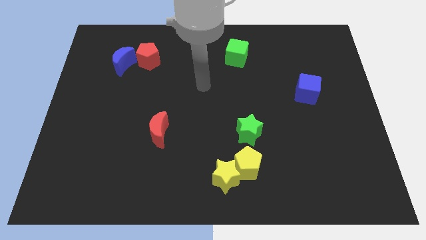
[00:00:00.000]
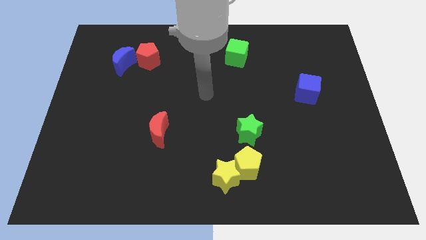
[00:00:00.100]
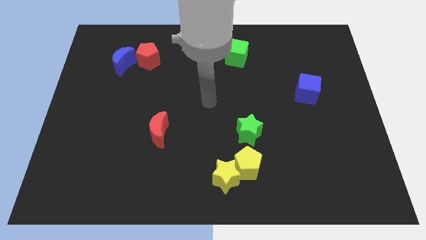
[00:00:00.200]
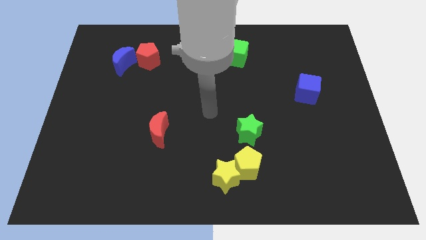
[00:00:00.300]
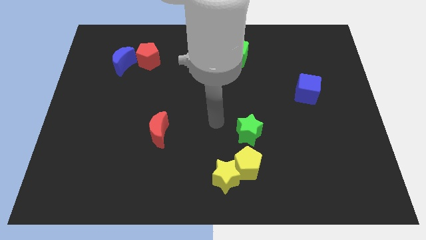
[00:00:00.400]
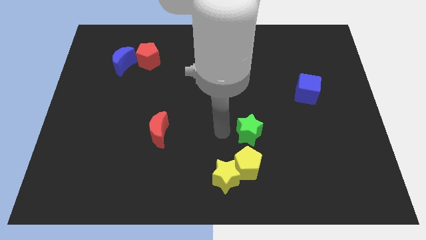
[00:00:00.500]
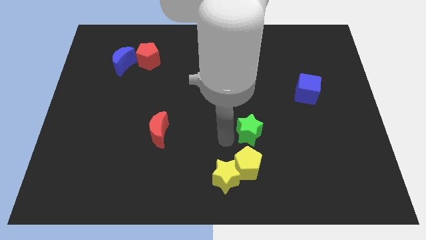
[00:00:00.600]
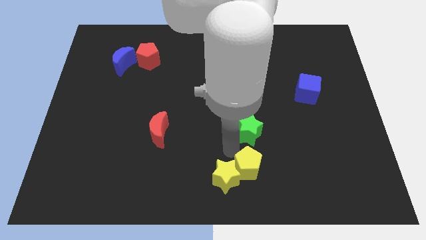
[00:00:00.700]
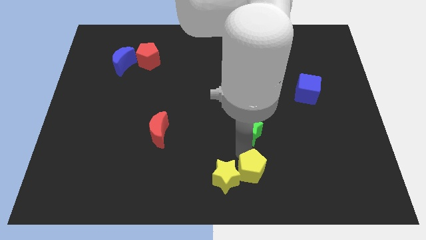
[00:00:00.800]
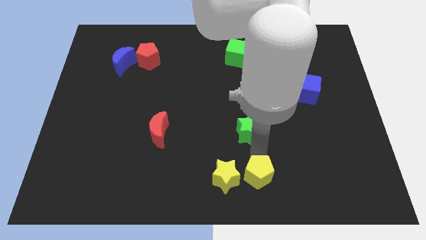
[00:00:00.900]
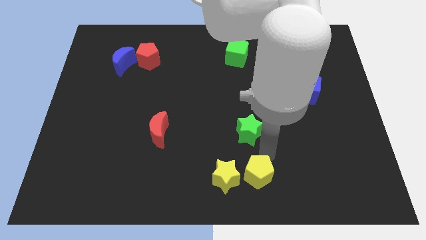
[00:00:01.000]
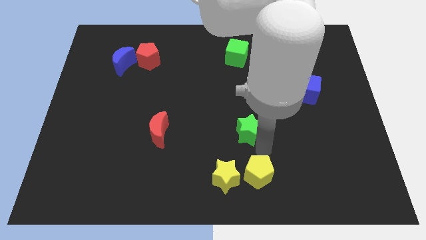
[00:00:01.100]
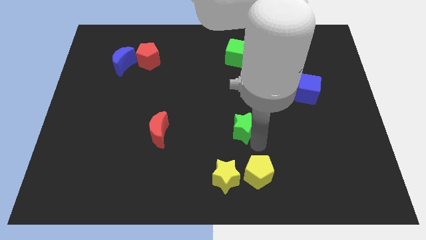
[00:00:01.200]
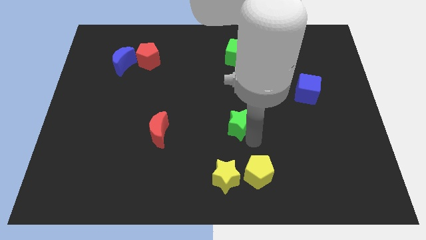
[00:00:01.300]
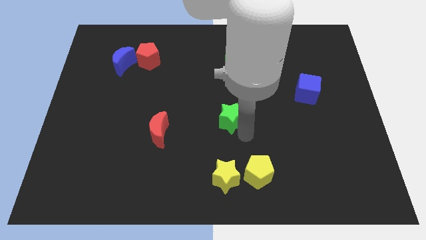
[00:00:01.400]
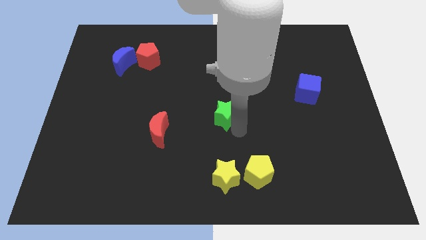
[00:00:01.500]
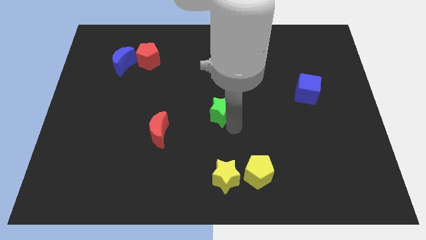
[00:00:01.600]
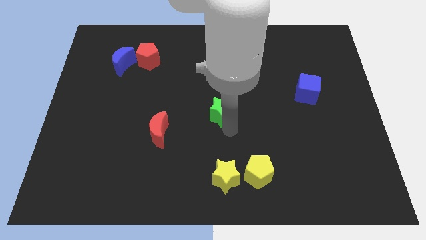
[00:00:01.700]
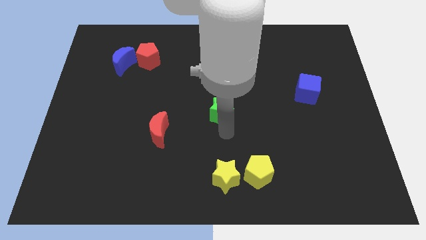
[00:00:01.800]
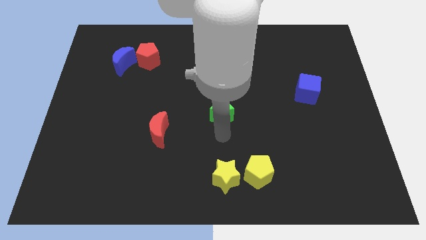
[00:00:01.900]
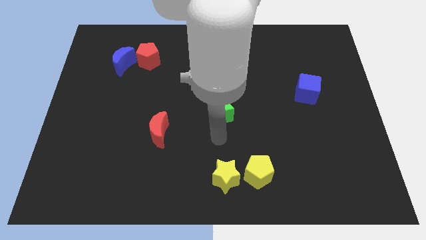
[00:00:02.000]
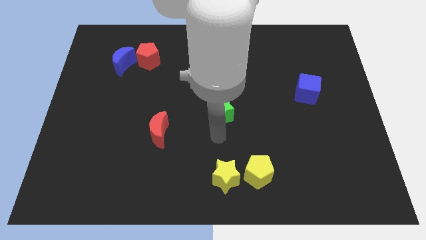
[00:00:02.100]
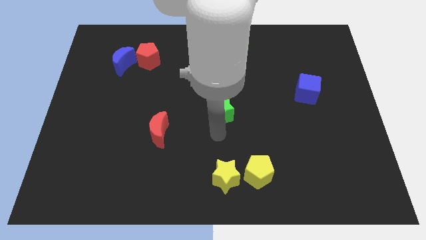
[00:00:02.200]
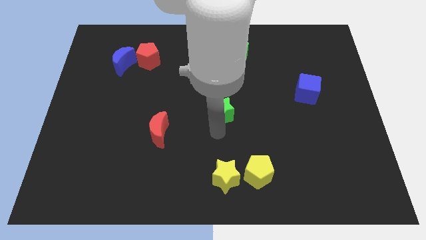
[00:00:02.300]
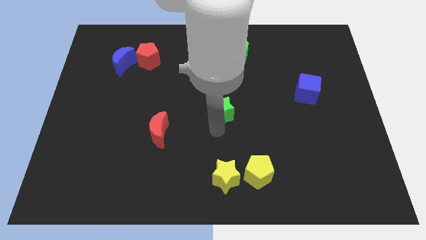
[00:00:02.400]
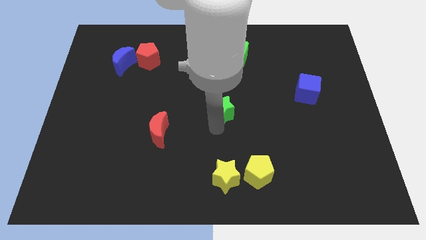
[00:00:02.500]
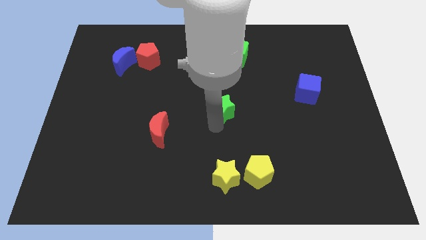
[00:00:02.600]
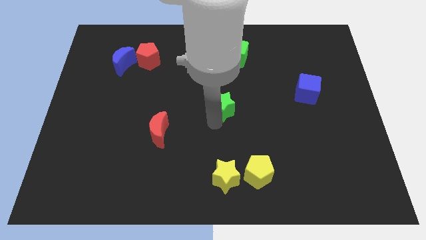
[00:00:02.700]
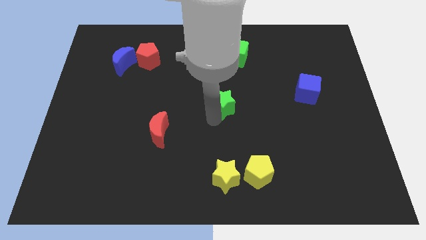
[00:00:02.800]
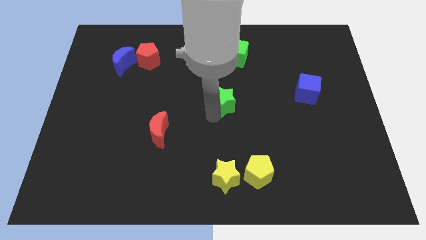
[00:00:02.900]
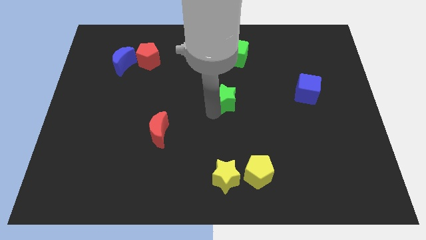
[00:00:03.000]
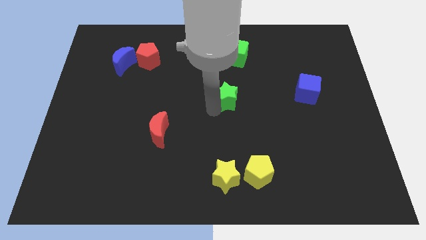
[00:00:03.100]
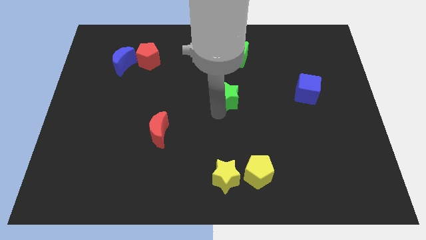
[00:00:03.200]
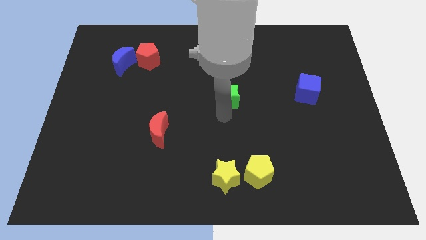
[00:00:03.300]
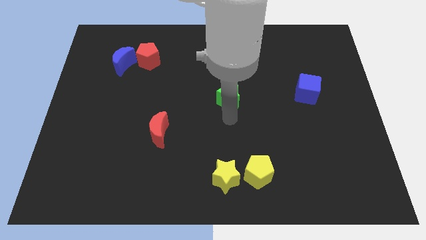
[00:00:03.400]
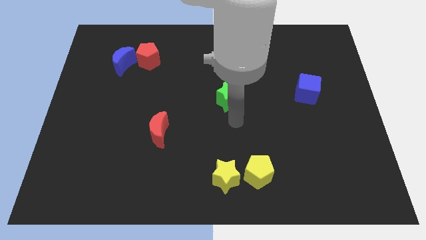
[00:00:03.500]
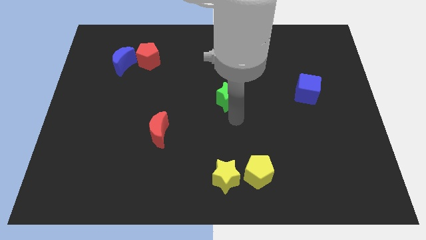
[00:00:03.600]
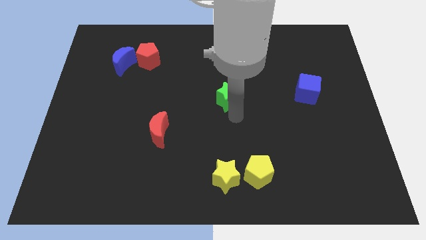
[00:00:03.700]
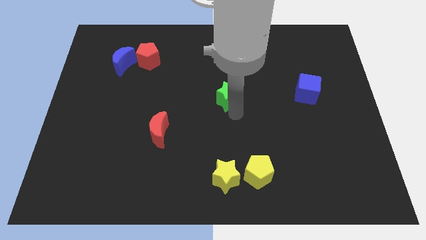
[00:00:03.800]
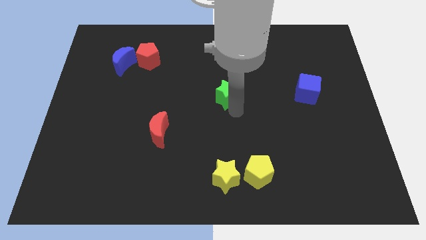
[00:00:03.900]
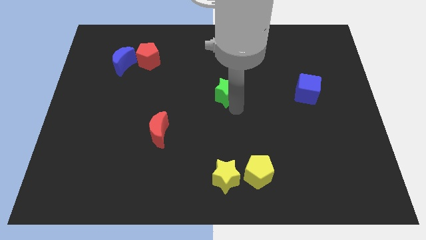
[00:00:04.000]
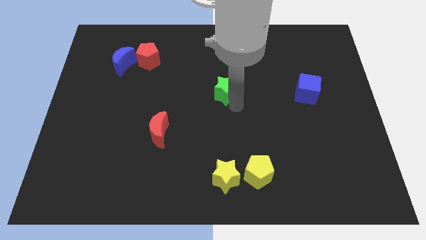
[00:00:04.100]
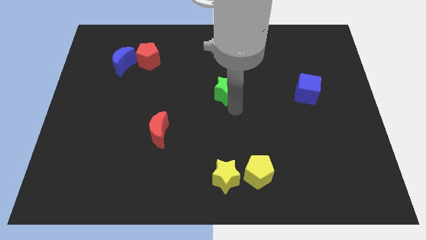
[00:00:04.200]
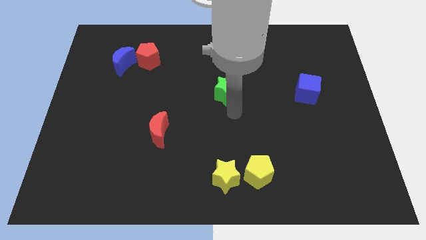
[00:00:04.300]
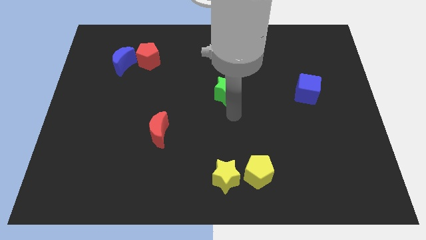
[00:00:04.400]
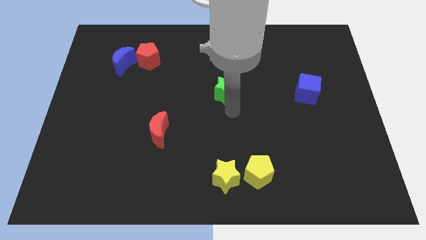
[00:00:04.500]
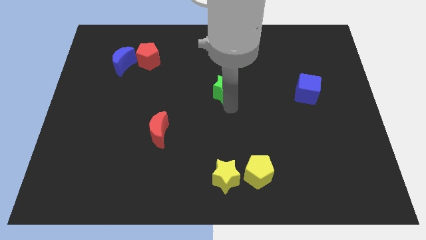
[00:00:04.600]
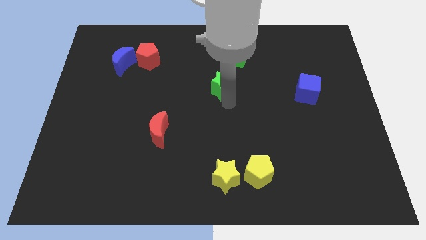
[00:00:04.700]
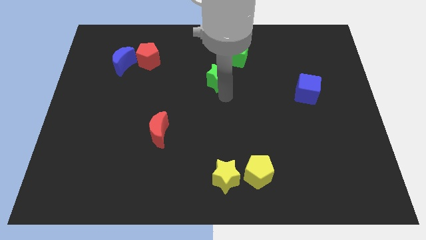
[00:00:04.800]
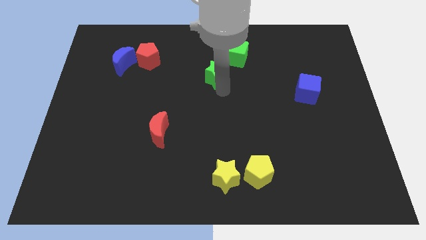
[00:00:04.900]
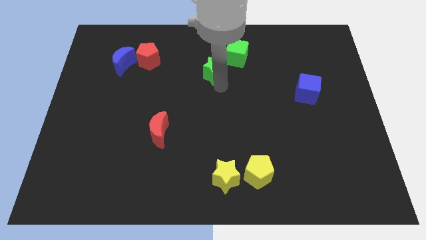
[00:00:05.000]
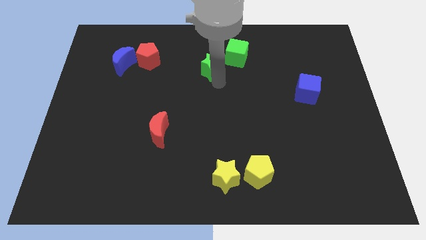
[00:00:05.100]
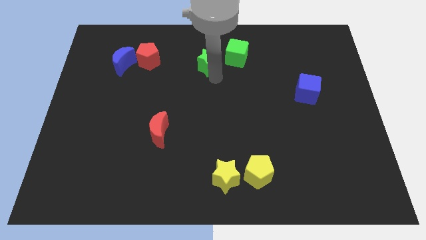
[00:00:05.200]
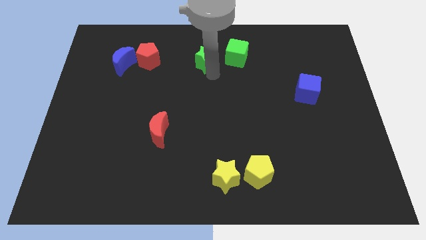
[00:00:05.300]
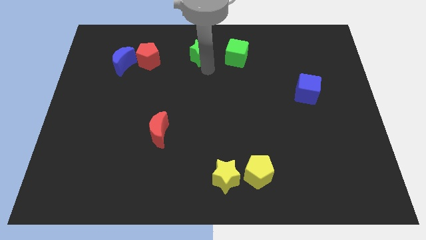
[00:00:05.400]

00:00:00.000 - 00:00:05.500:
slide the green star to the top

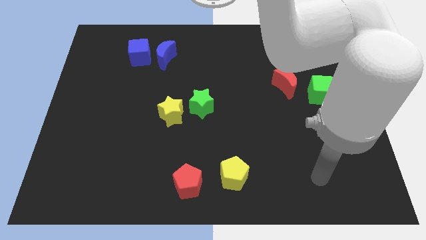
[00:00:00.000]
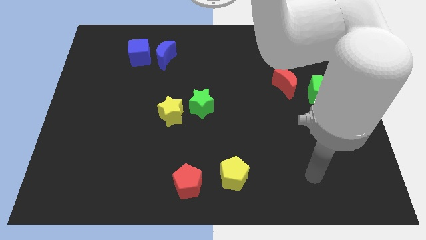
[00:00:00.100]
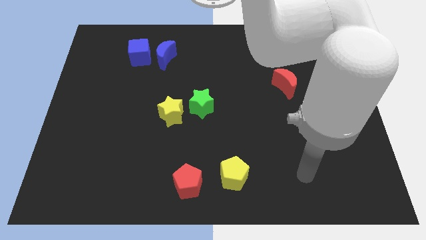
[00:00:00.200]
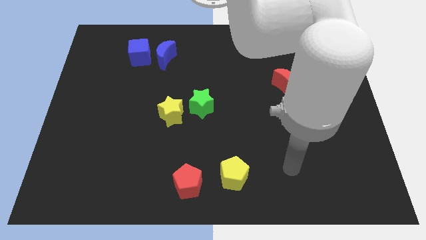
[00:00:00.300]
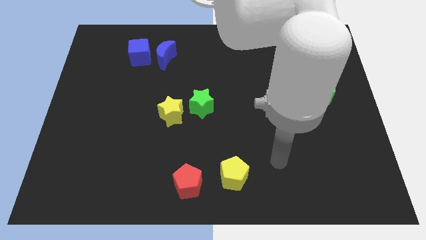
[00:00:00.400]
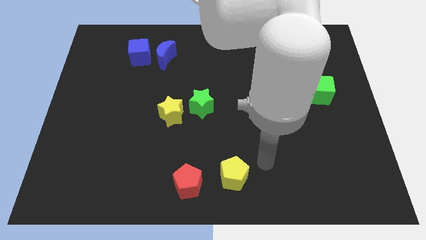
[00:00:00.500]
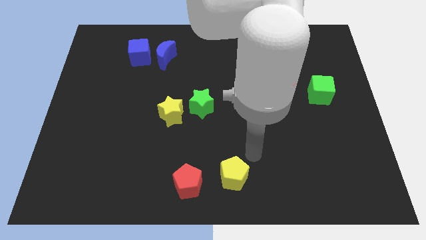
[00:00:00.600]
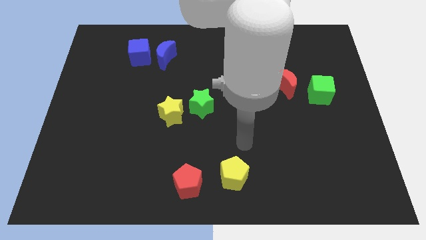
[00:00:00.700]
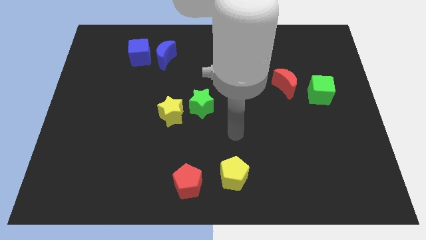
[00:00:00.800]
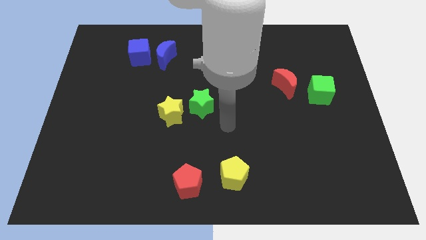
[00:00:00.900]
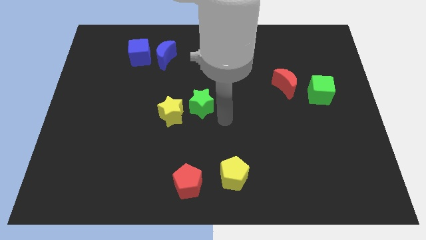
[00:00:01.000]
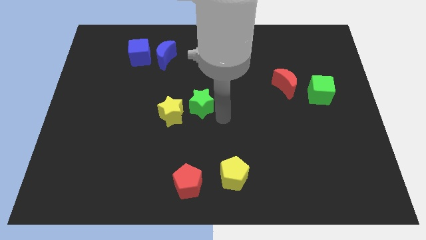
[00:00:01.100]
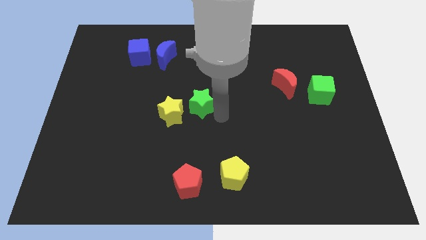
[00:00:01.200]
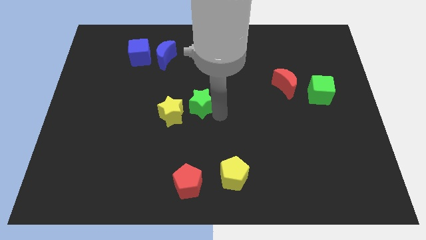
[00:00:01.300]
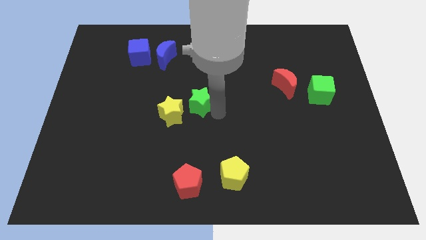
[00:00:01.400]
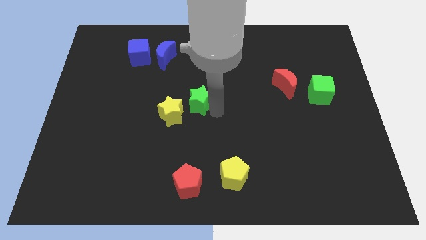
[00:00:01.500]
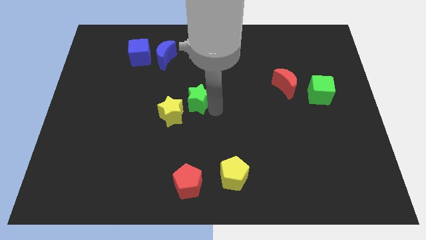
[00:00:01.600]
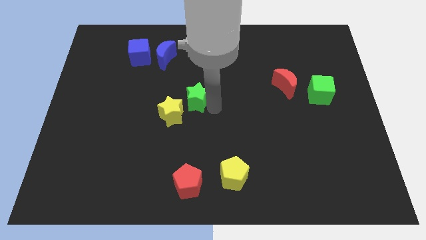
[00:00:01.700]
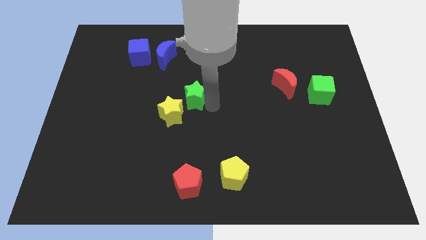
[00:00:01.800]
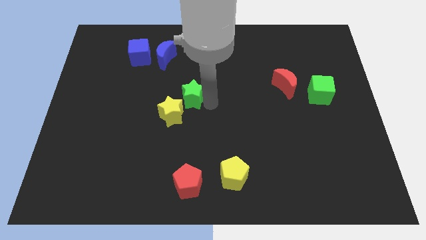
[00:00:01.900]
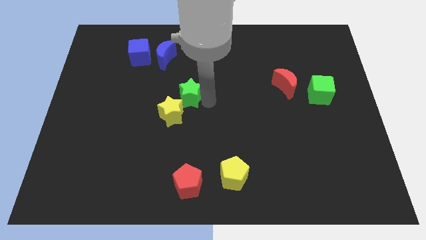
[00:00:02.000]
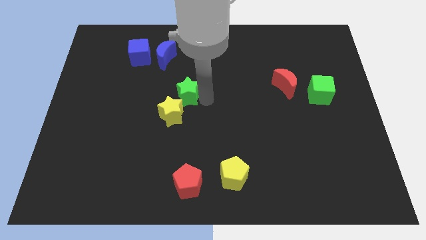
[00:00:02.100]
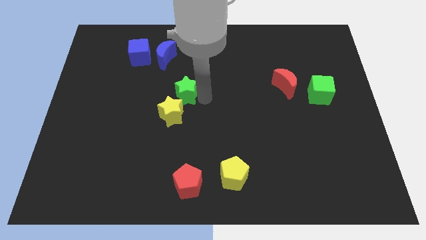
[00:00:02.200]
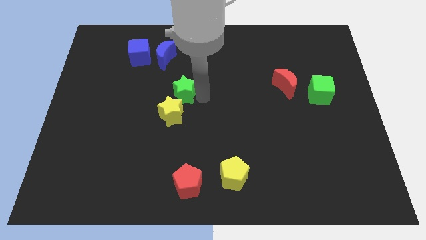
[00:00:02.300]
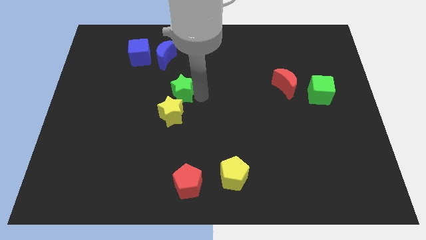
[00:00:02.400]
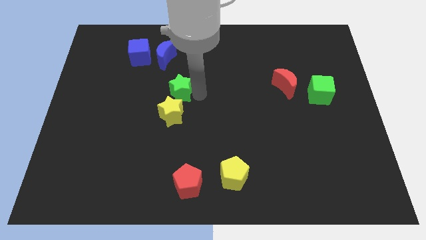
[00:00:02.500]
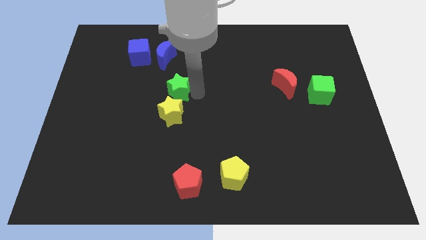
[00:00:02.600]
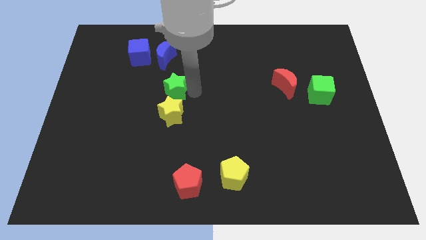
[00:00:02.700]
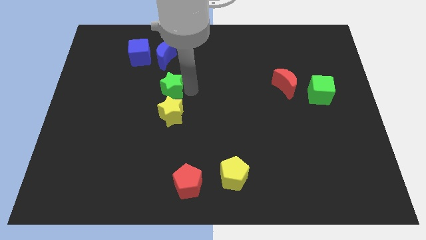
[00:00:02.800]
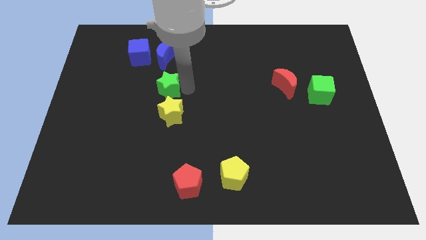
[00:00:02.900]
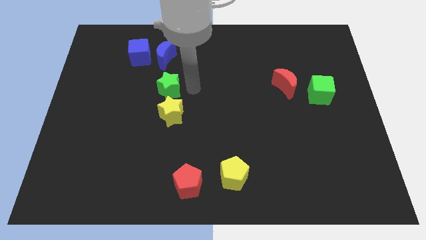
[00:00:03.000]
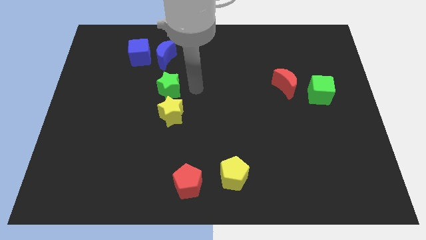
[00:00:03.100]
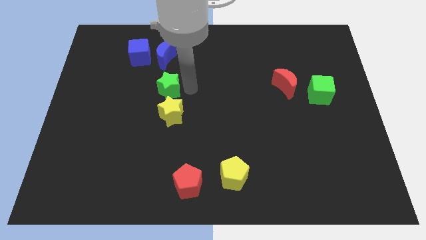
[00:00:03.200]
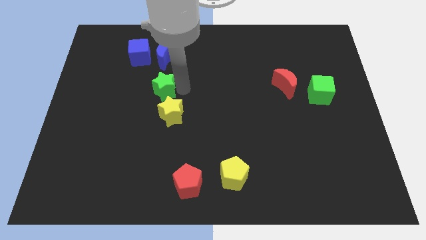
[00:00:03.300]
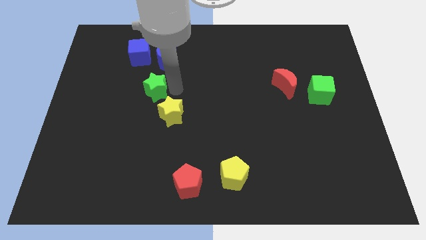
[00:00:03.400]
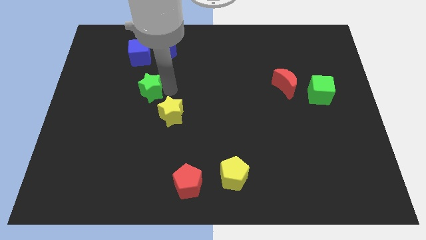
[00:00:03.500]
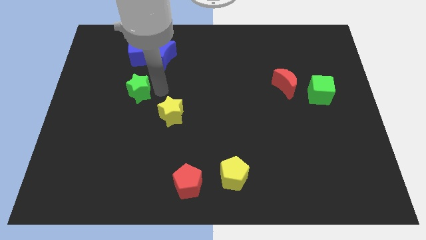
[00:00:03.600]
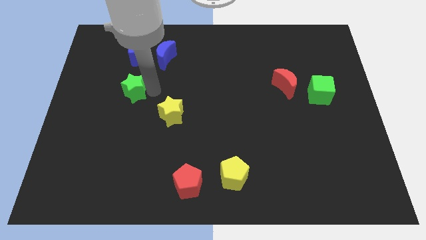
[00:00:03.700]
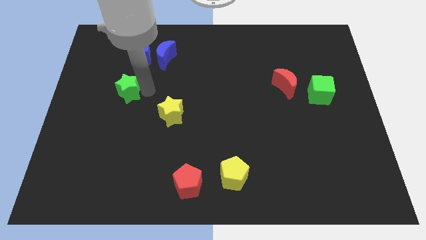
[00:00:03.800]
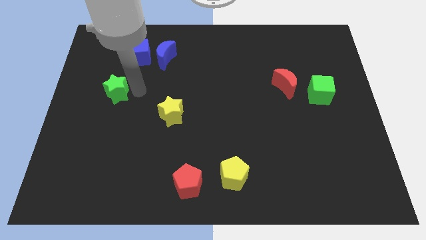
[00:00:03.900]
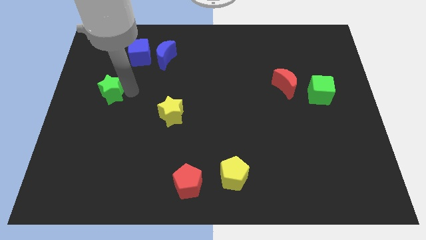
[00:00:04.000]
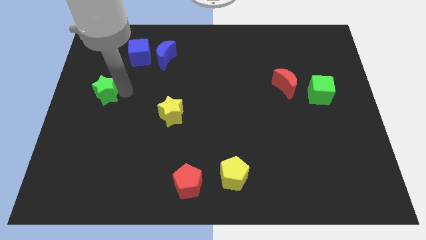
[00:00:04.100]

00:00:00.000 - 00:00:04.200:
push the green star to the left side of the board
